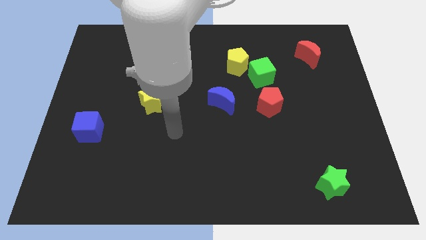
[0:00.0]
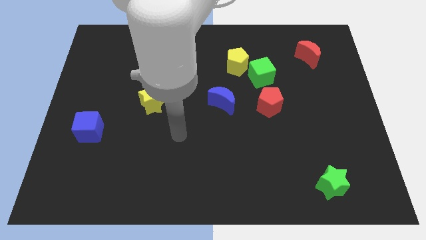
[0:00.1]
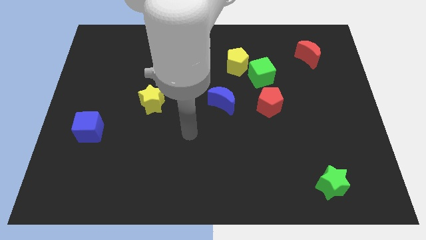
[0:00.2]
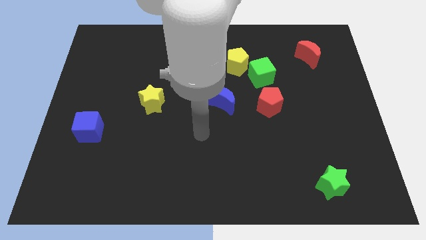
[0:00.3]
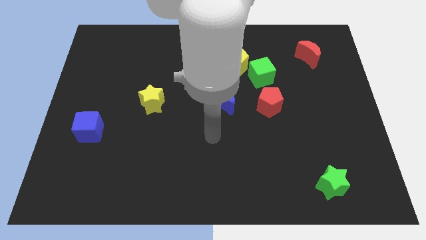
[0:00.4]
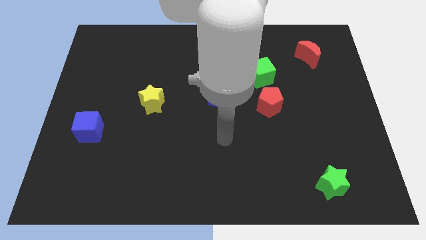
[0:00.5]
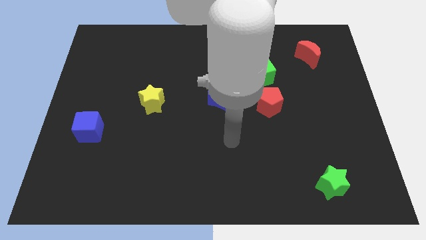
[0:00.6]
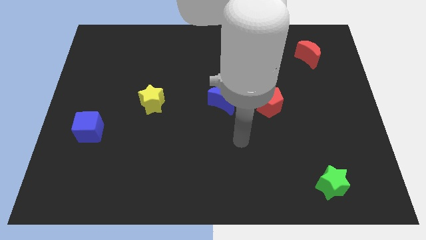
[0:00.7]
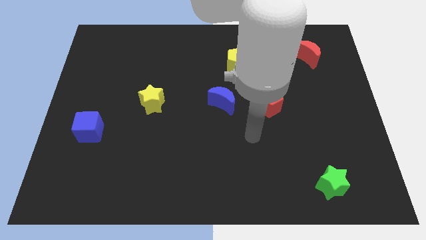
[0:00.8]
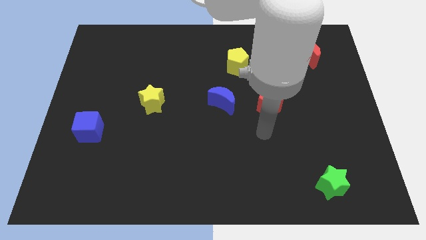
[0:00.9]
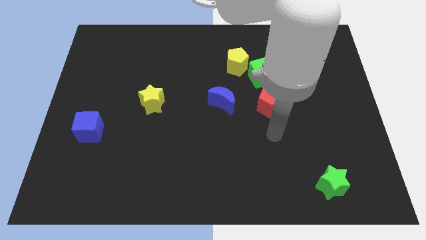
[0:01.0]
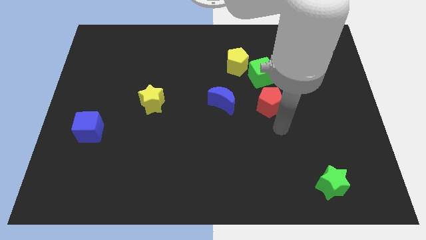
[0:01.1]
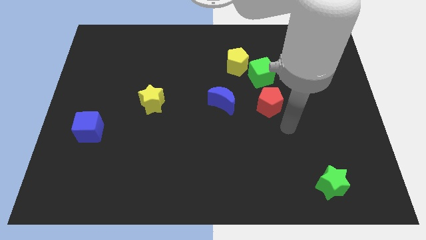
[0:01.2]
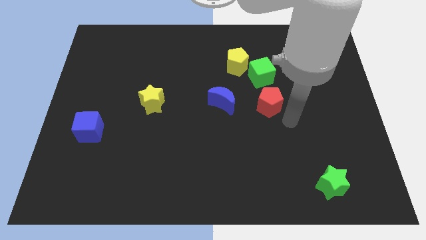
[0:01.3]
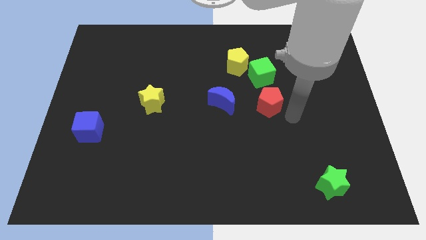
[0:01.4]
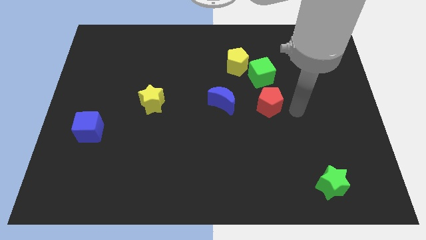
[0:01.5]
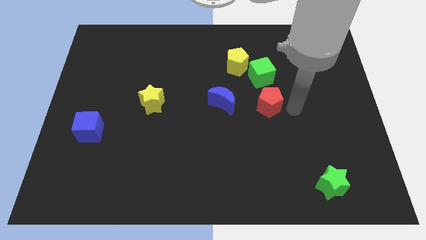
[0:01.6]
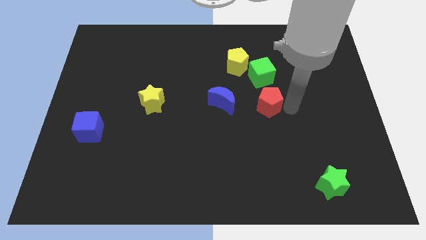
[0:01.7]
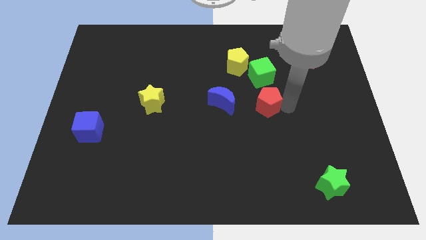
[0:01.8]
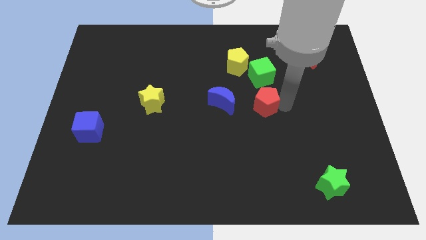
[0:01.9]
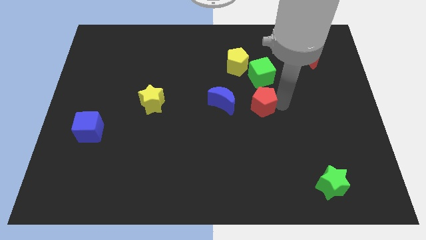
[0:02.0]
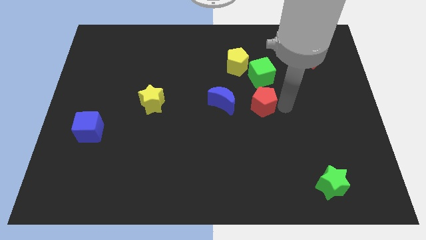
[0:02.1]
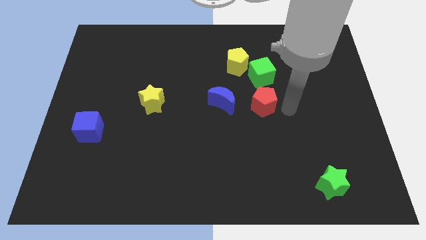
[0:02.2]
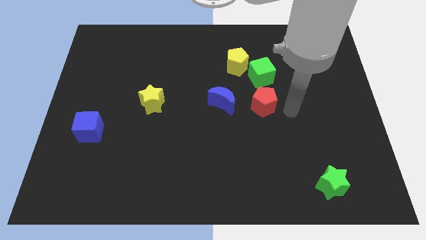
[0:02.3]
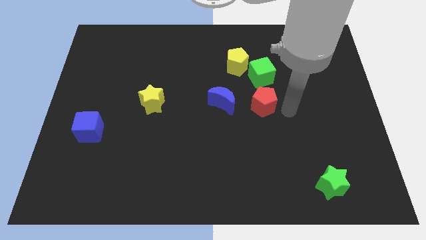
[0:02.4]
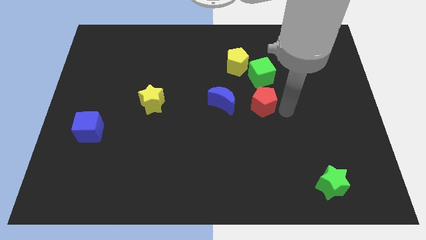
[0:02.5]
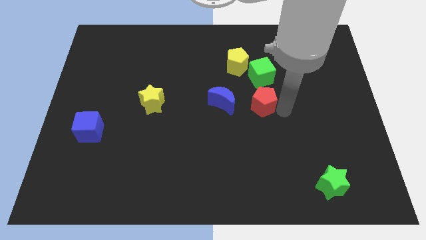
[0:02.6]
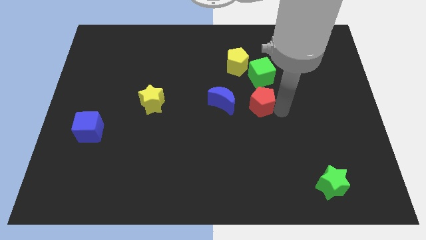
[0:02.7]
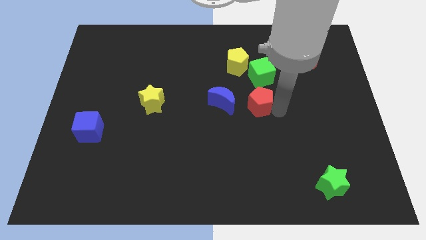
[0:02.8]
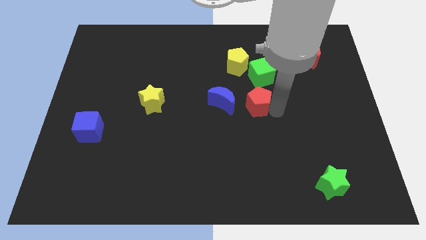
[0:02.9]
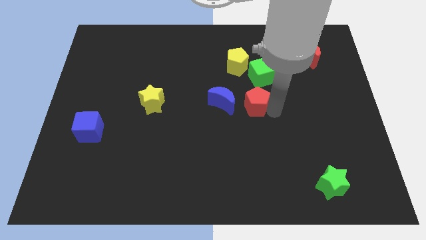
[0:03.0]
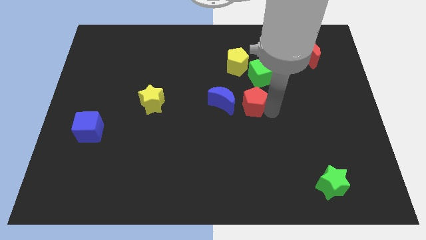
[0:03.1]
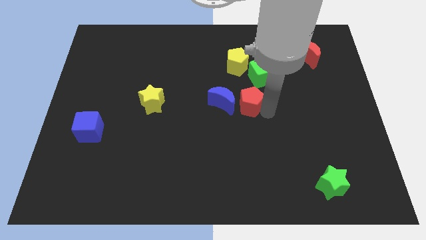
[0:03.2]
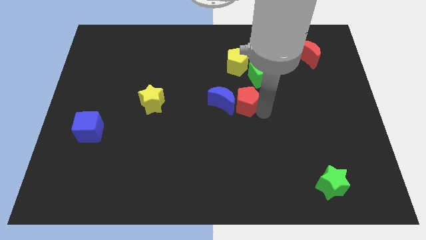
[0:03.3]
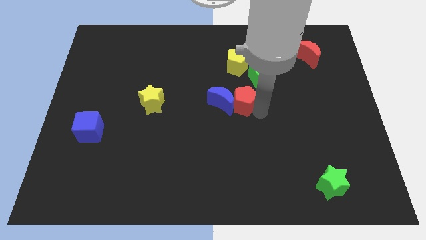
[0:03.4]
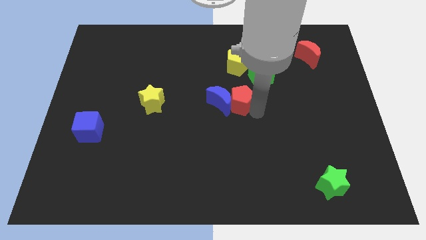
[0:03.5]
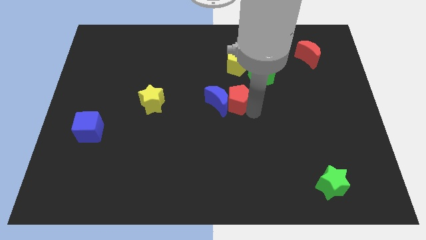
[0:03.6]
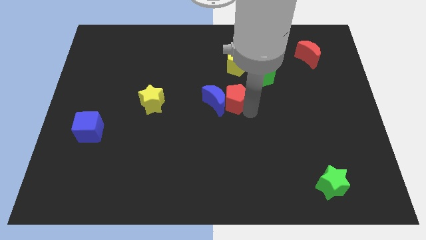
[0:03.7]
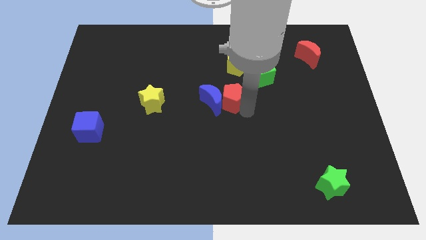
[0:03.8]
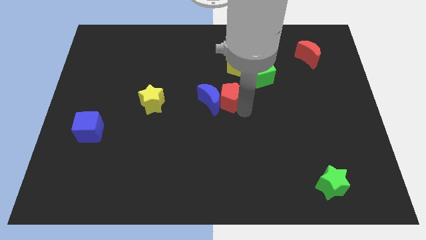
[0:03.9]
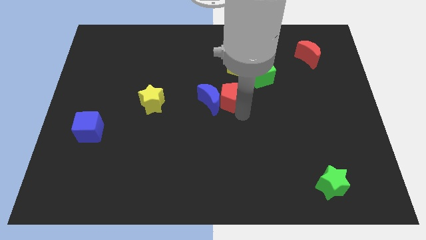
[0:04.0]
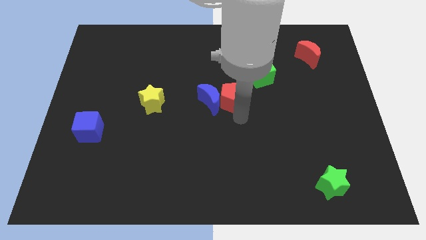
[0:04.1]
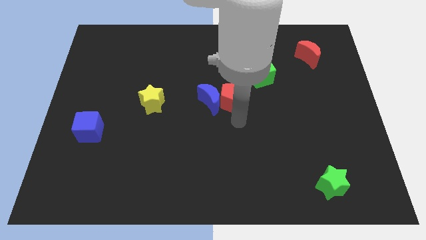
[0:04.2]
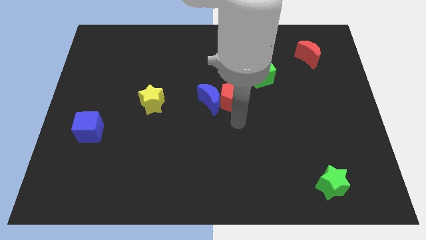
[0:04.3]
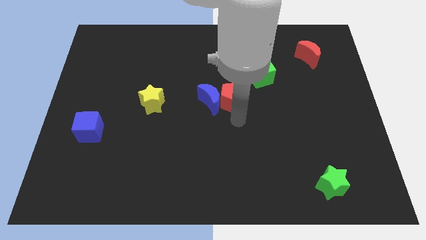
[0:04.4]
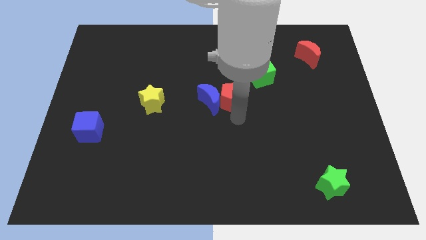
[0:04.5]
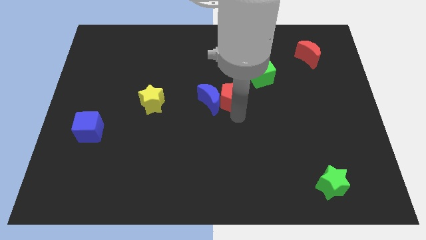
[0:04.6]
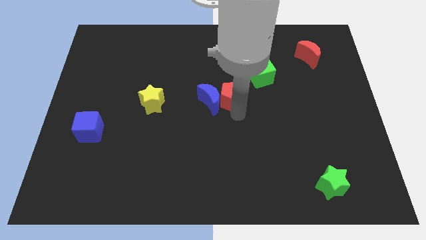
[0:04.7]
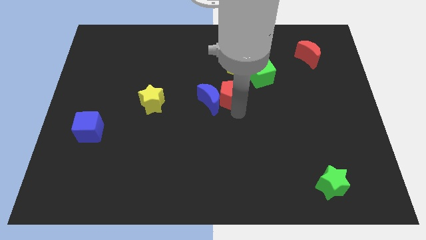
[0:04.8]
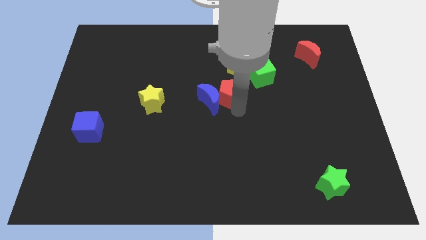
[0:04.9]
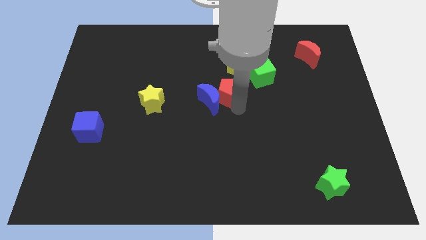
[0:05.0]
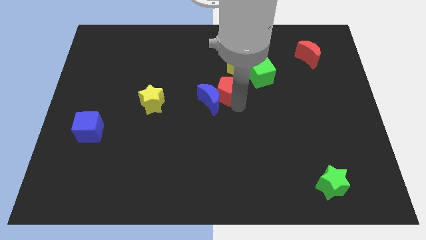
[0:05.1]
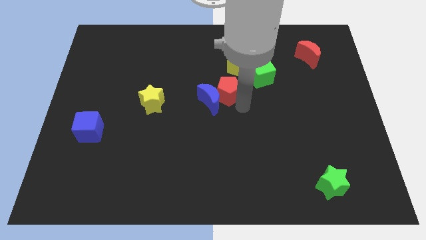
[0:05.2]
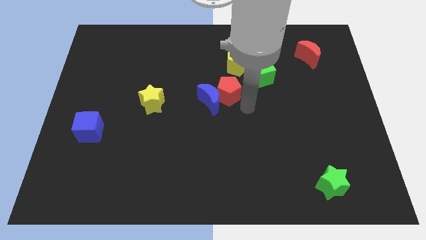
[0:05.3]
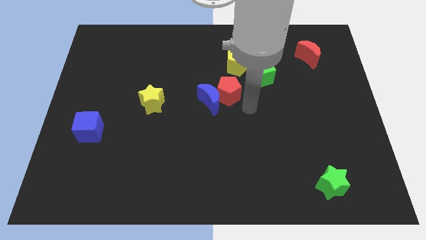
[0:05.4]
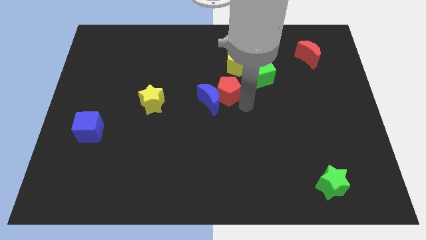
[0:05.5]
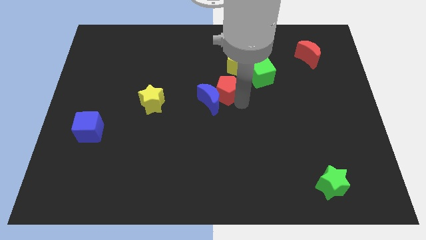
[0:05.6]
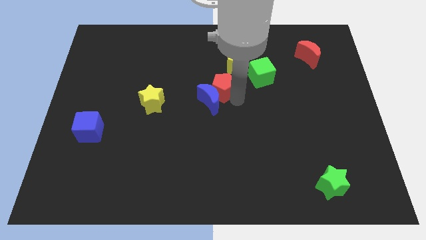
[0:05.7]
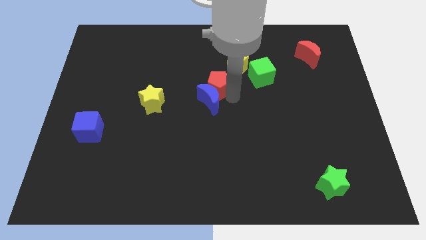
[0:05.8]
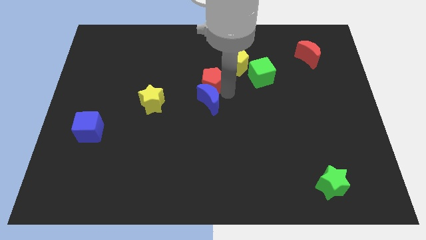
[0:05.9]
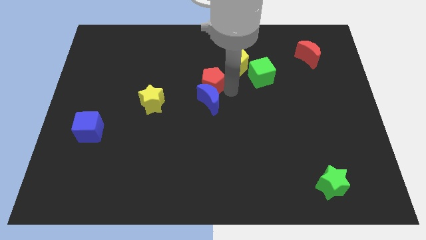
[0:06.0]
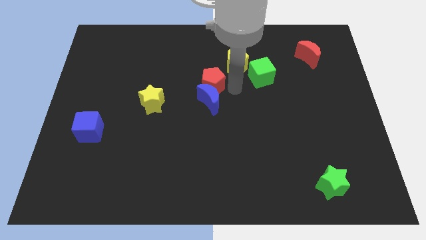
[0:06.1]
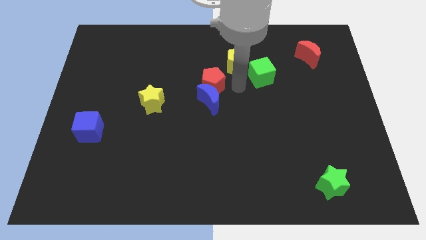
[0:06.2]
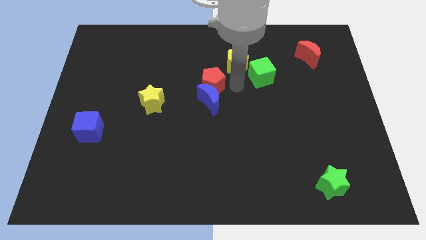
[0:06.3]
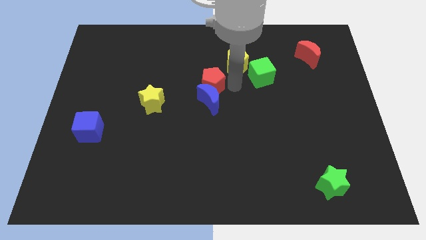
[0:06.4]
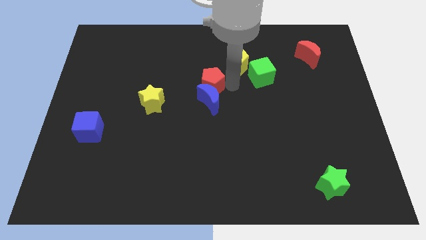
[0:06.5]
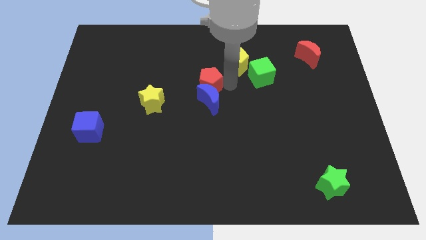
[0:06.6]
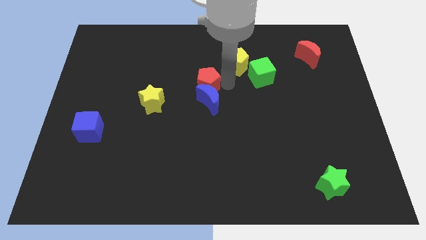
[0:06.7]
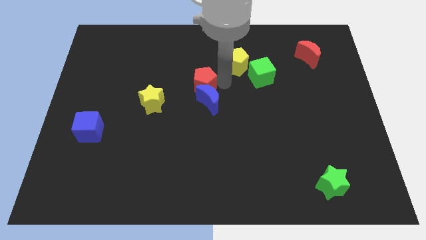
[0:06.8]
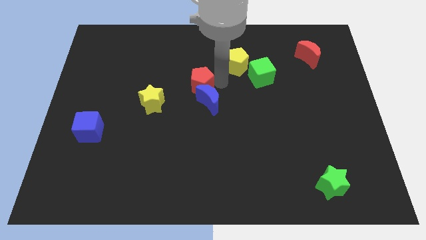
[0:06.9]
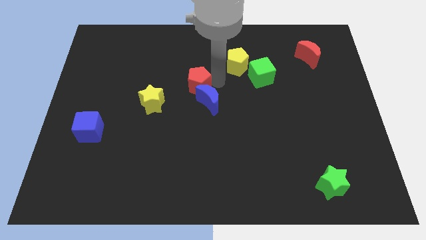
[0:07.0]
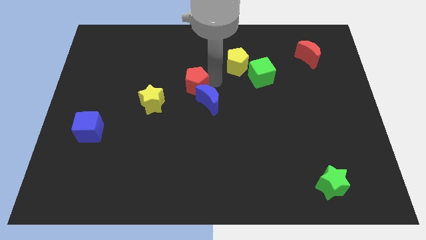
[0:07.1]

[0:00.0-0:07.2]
put the red pentagon to the top right side of the yellow star

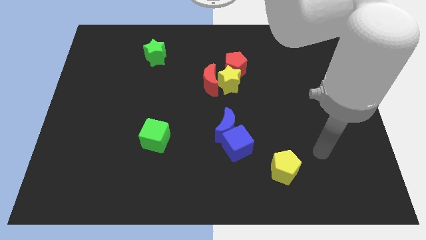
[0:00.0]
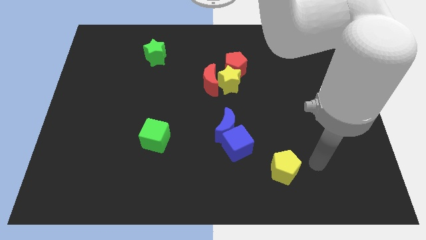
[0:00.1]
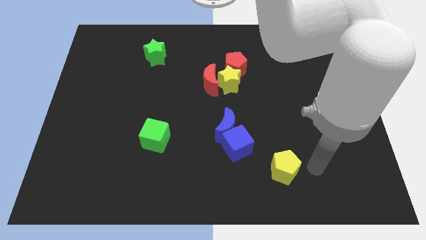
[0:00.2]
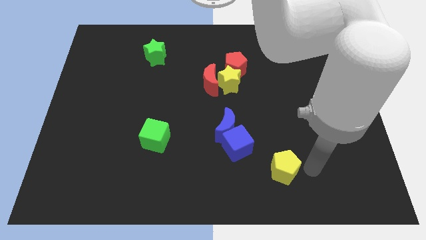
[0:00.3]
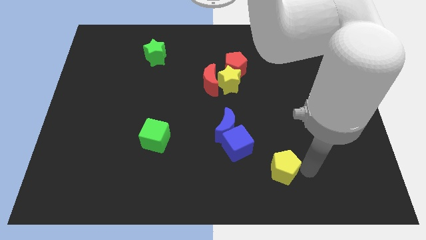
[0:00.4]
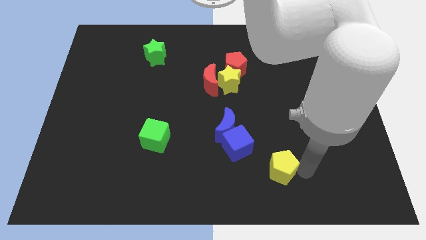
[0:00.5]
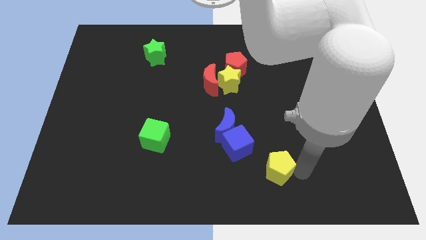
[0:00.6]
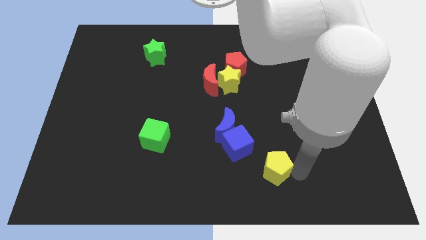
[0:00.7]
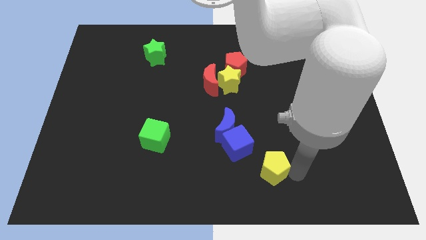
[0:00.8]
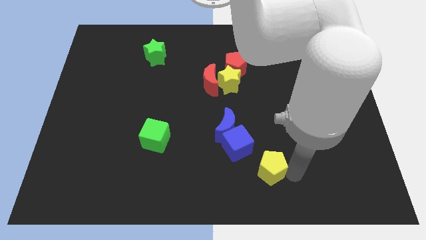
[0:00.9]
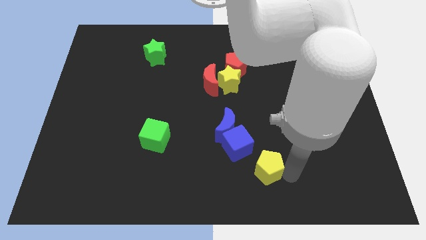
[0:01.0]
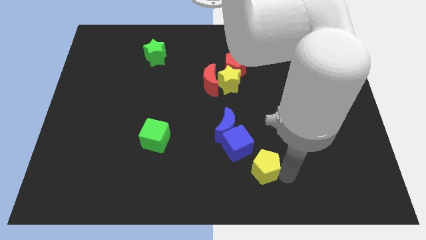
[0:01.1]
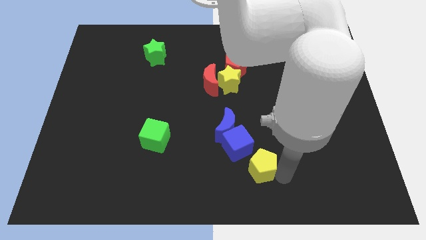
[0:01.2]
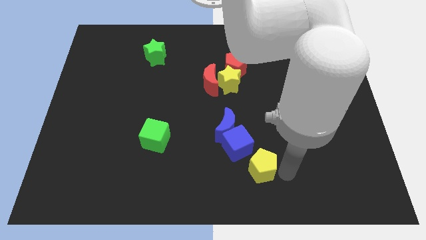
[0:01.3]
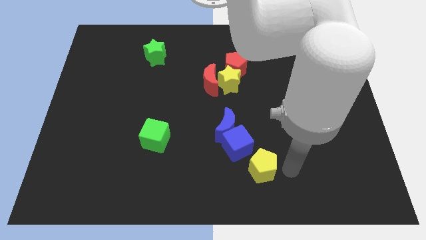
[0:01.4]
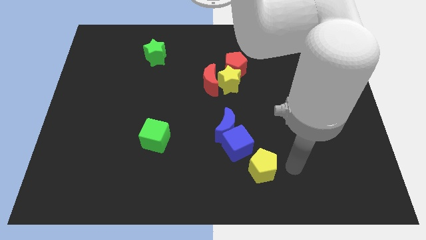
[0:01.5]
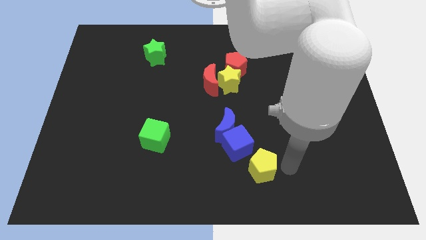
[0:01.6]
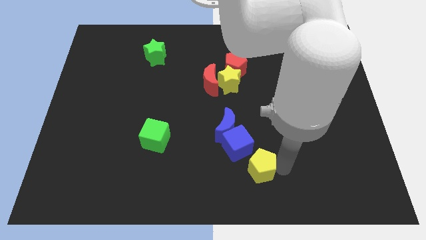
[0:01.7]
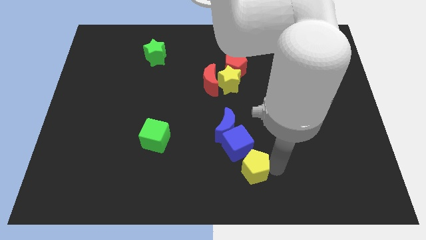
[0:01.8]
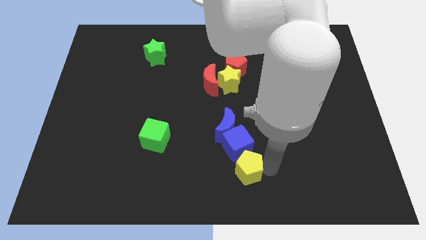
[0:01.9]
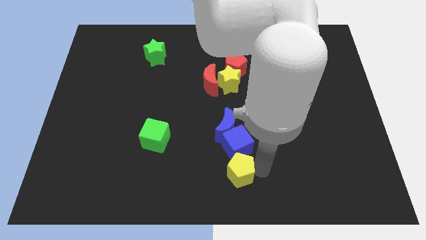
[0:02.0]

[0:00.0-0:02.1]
slide the yellow pentagon to the bottom left of the blue cube
